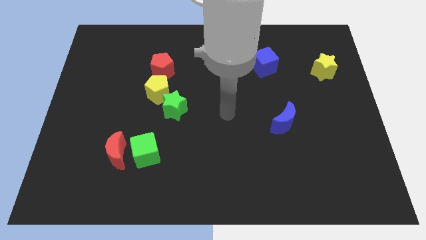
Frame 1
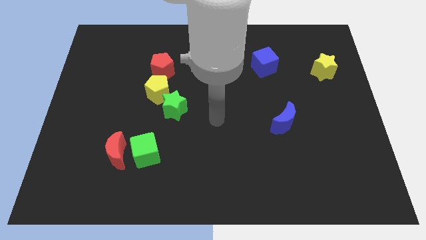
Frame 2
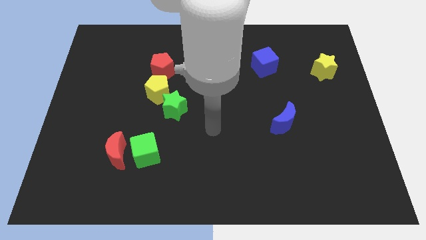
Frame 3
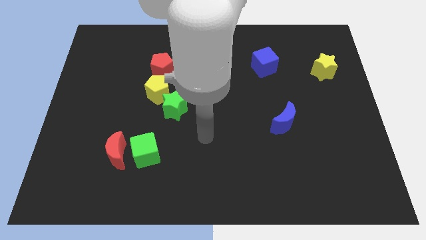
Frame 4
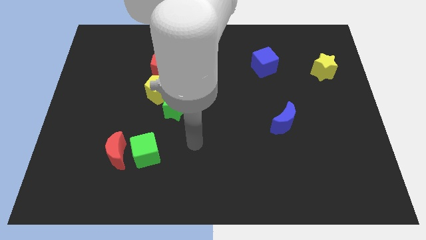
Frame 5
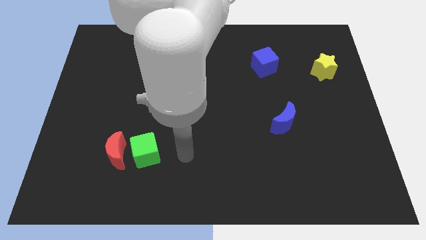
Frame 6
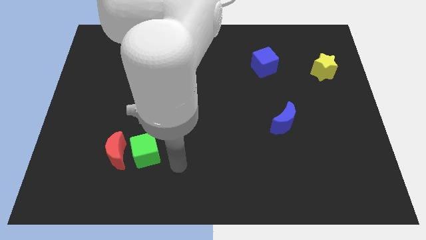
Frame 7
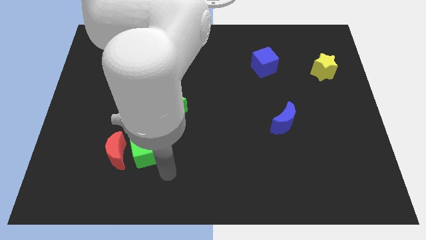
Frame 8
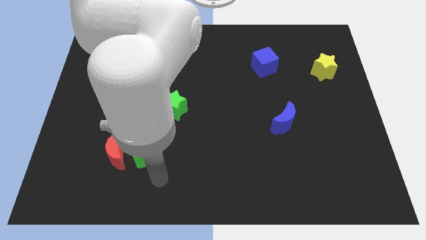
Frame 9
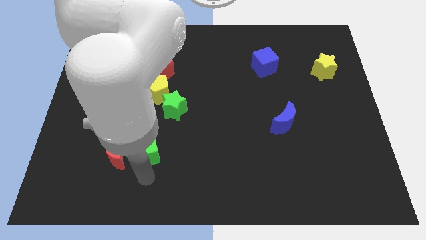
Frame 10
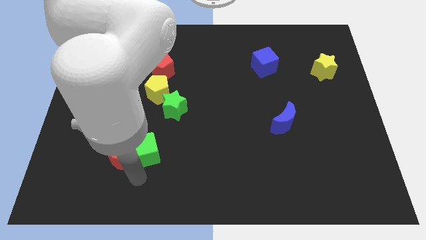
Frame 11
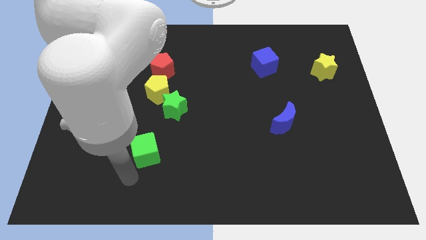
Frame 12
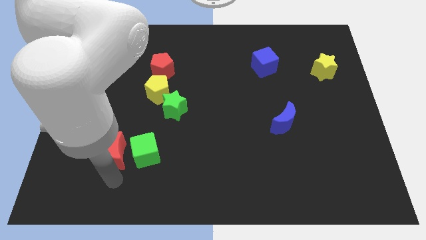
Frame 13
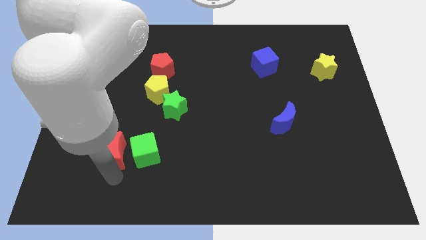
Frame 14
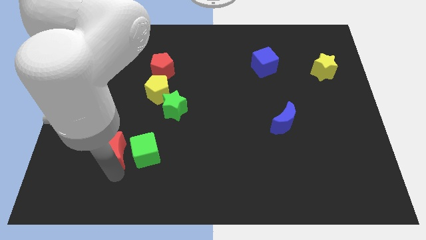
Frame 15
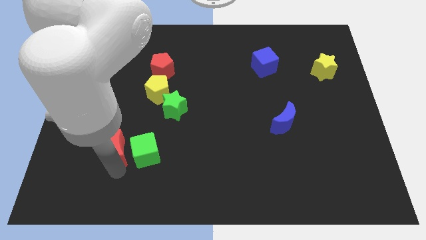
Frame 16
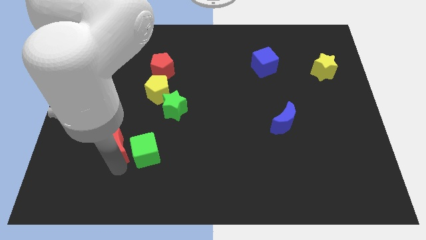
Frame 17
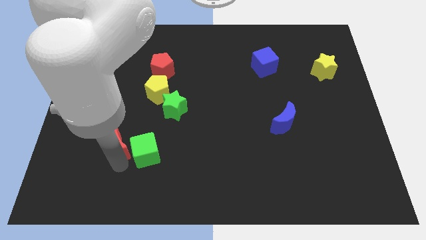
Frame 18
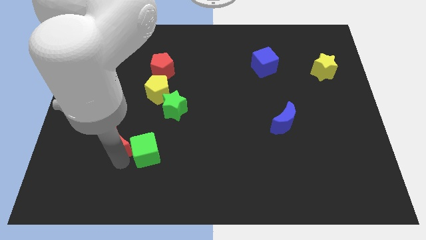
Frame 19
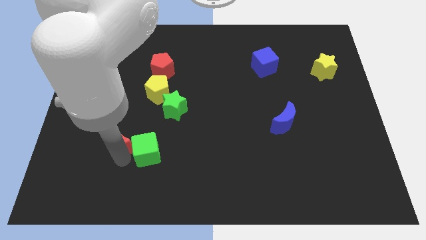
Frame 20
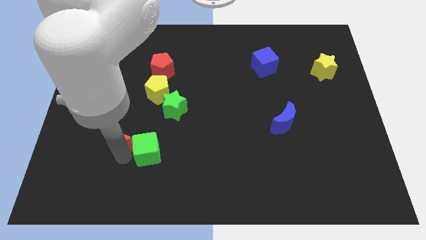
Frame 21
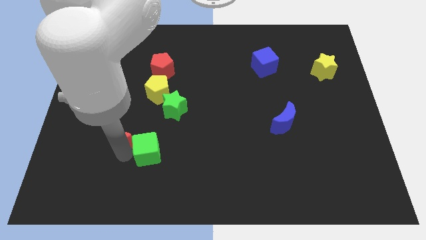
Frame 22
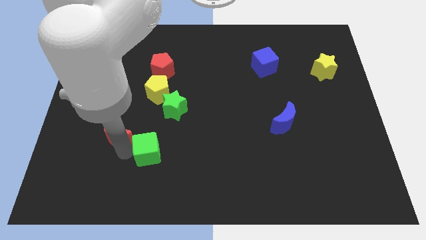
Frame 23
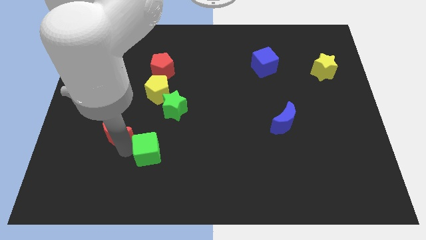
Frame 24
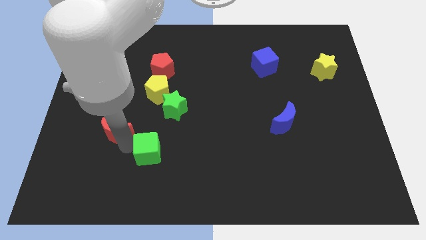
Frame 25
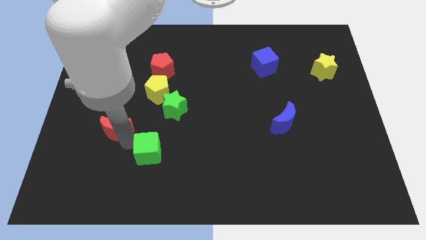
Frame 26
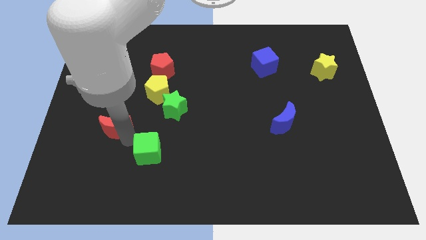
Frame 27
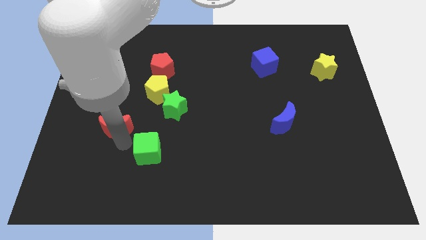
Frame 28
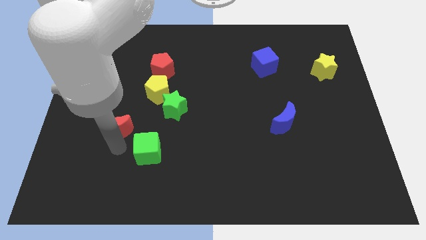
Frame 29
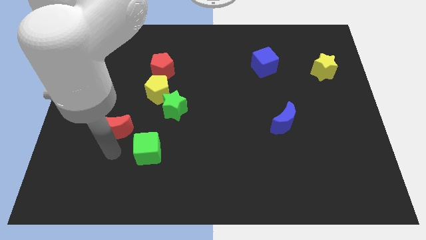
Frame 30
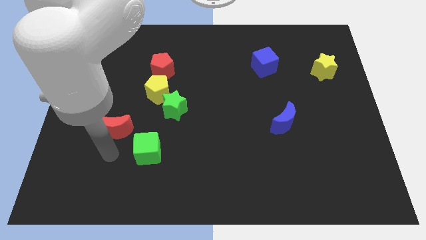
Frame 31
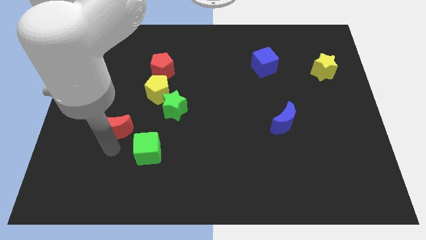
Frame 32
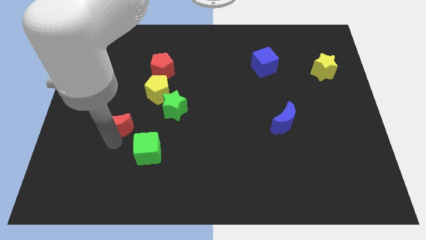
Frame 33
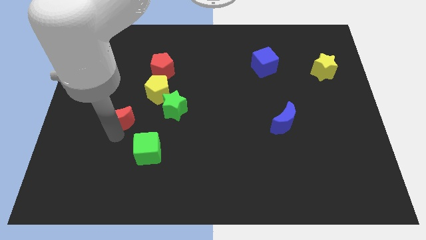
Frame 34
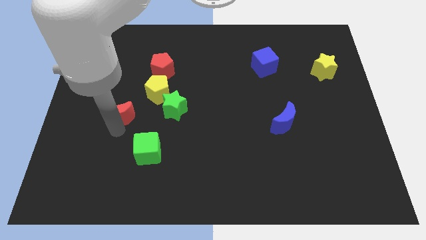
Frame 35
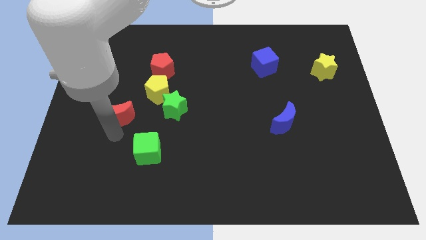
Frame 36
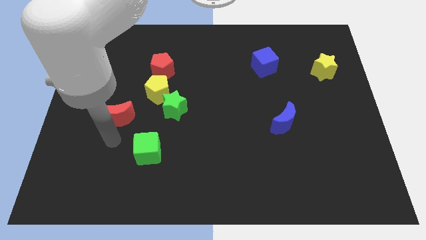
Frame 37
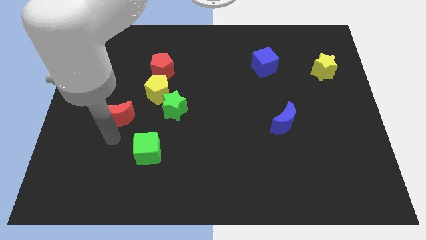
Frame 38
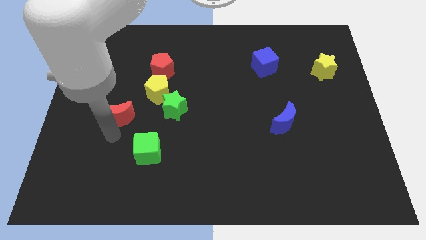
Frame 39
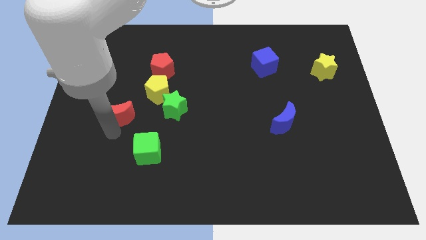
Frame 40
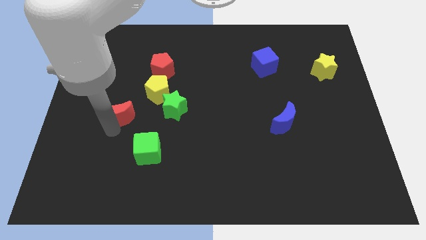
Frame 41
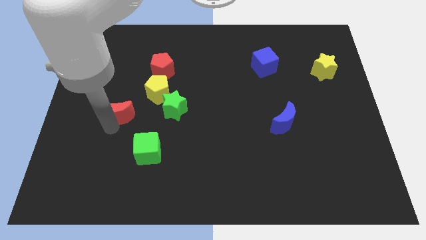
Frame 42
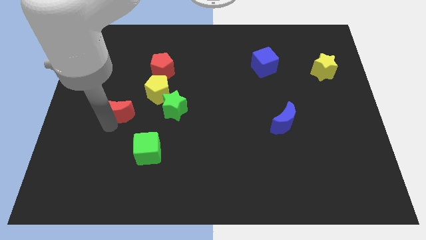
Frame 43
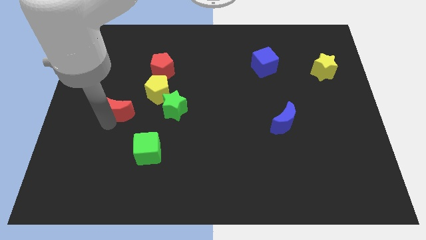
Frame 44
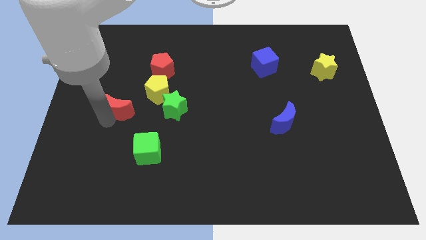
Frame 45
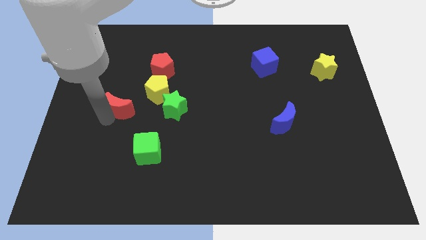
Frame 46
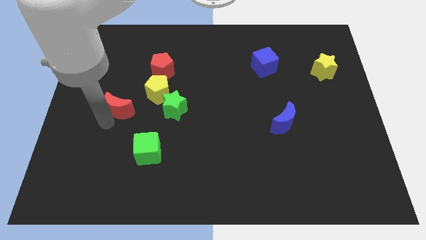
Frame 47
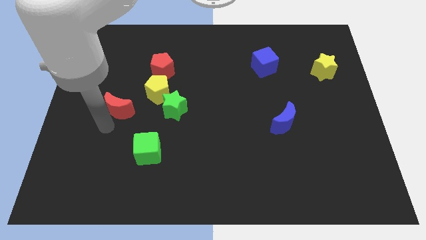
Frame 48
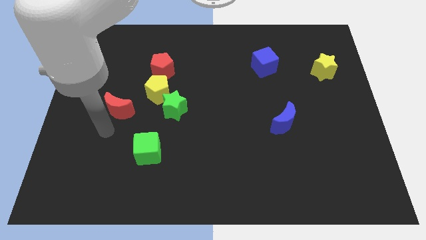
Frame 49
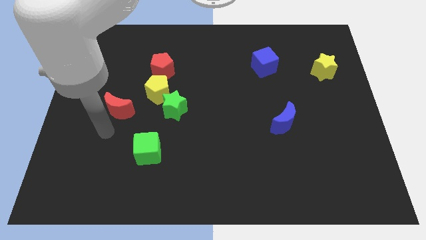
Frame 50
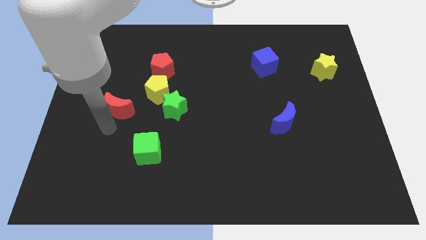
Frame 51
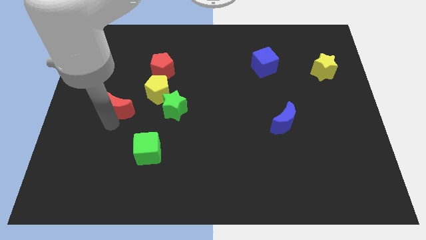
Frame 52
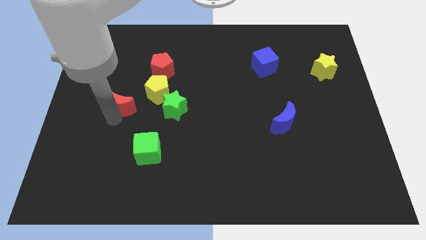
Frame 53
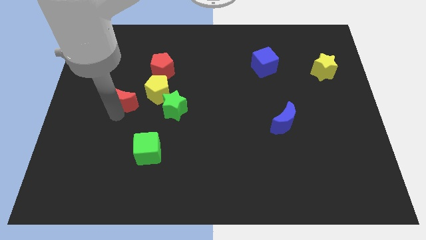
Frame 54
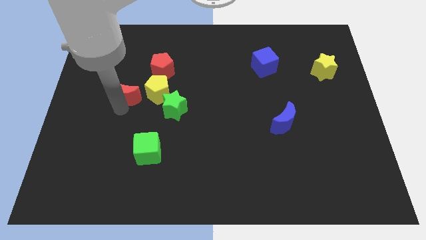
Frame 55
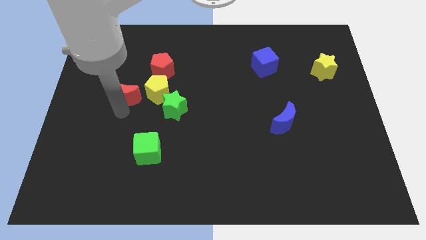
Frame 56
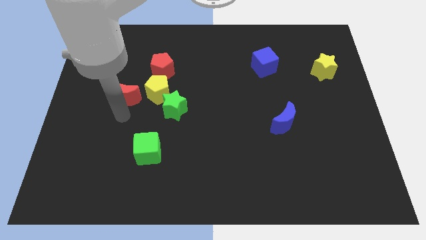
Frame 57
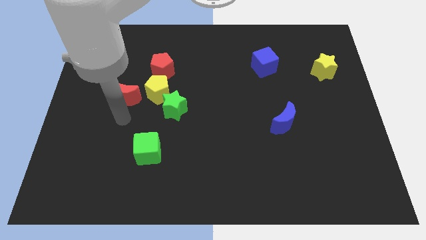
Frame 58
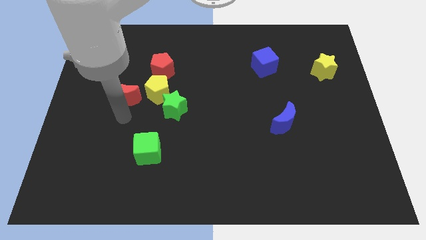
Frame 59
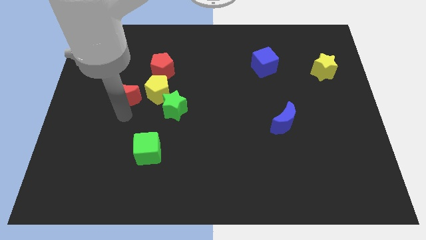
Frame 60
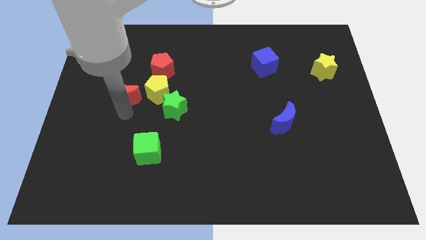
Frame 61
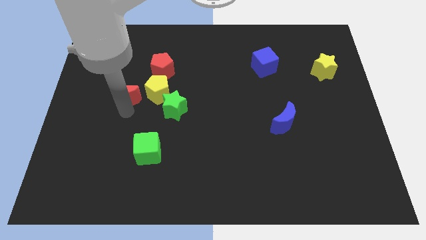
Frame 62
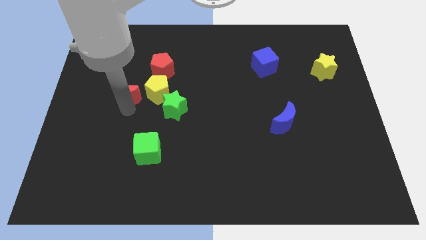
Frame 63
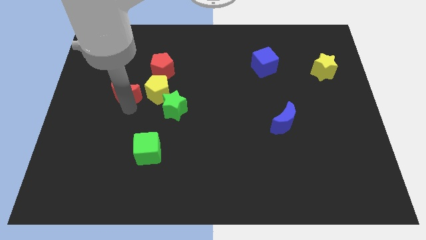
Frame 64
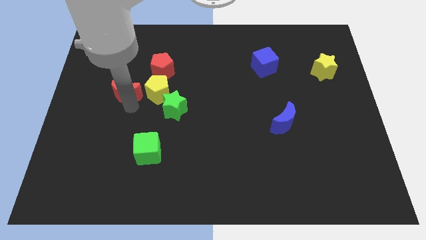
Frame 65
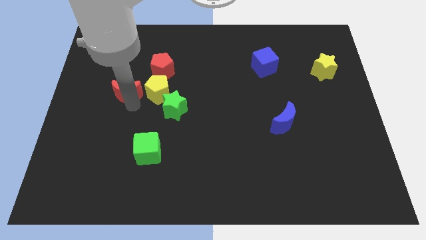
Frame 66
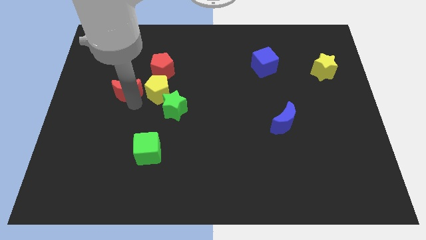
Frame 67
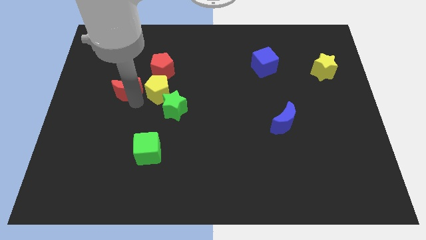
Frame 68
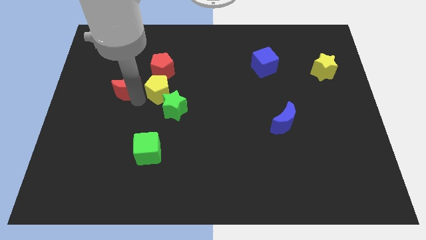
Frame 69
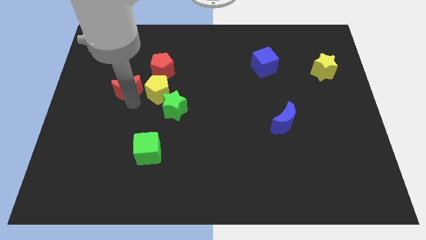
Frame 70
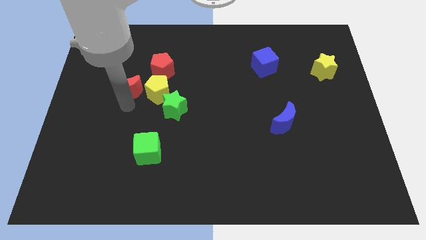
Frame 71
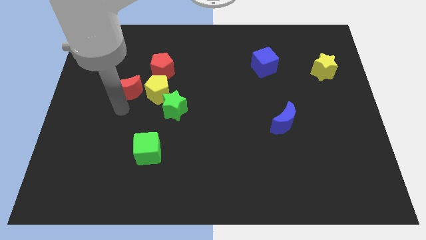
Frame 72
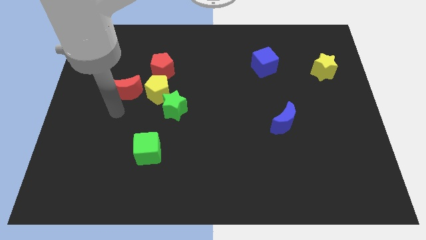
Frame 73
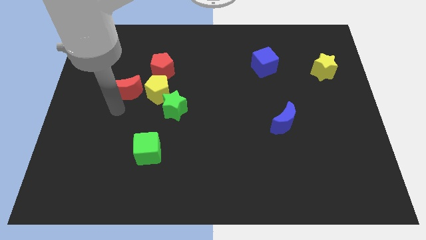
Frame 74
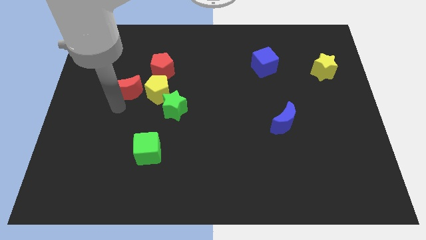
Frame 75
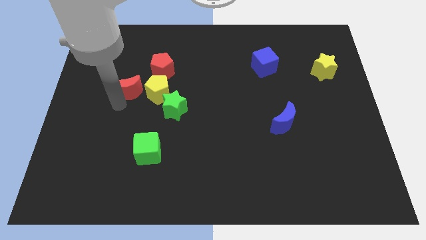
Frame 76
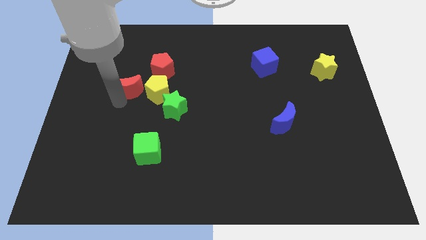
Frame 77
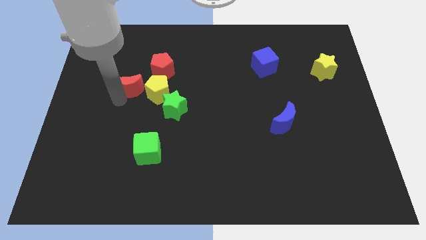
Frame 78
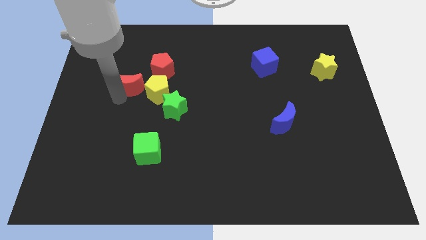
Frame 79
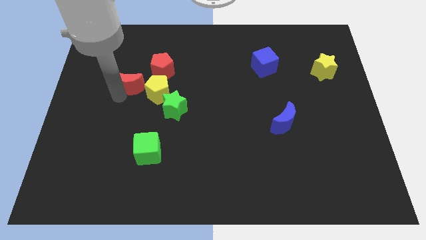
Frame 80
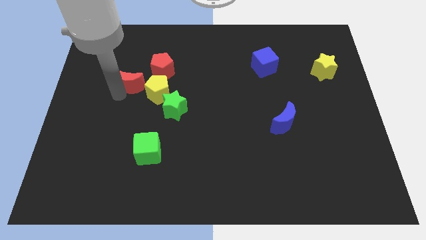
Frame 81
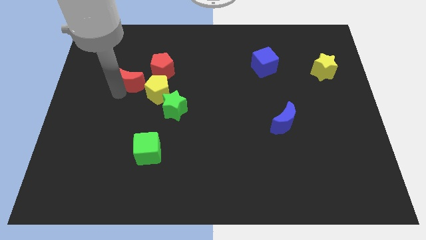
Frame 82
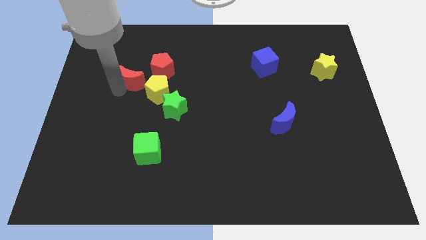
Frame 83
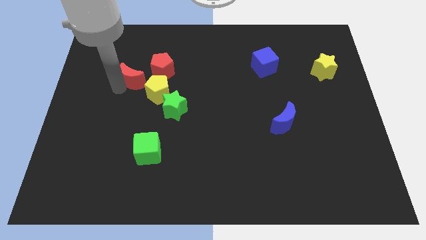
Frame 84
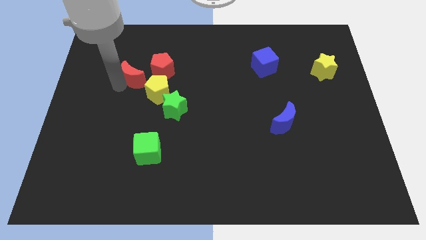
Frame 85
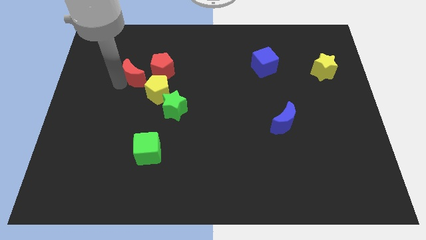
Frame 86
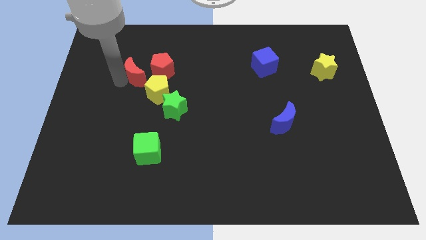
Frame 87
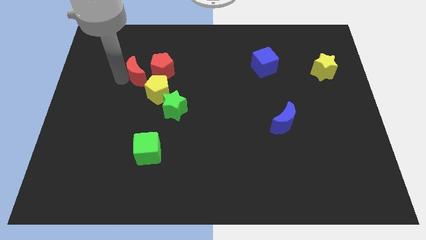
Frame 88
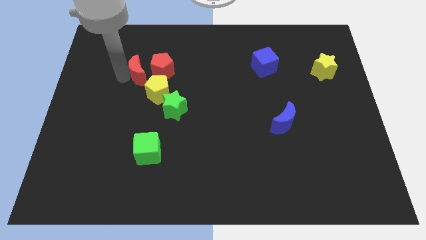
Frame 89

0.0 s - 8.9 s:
slide the red moon to the red pentagon
